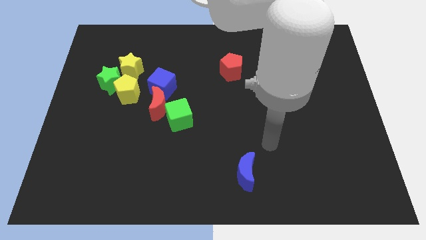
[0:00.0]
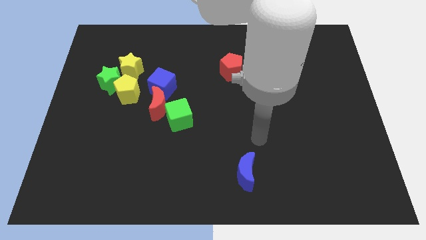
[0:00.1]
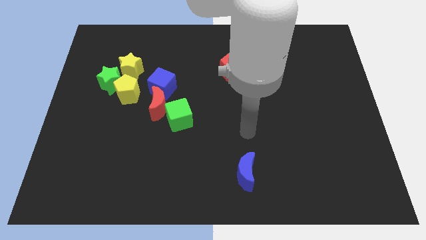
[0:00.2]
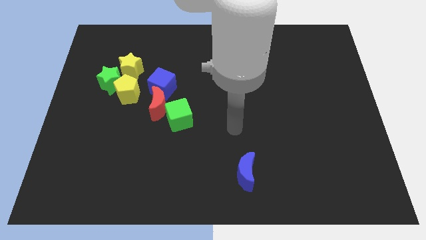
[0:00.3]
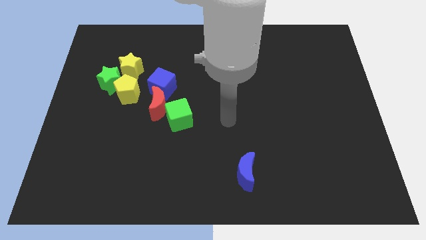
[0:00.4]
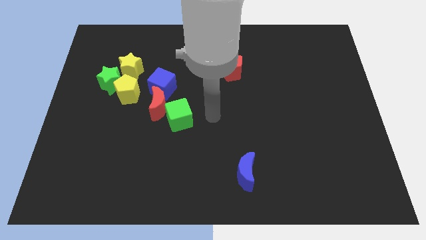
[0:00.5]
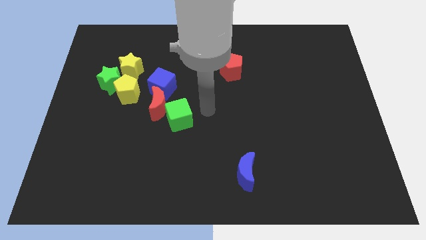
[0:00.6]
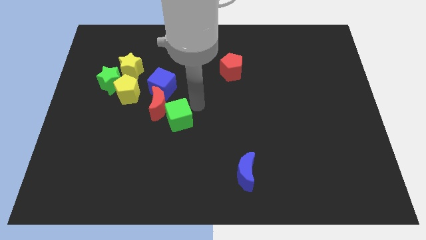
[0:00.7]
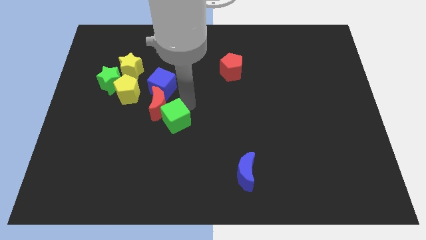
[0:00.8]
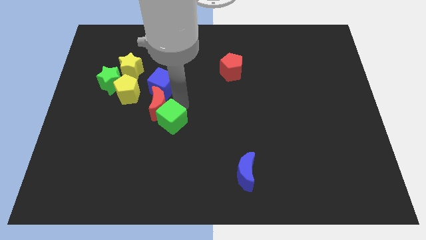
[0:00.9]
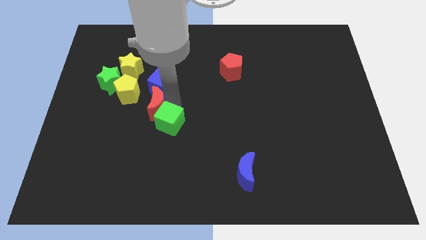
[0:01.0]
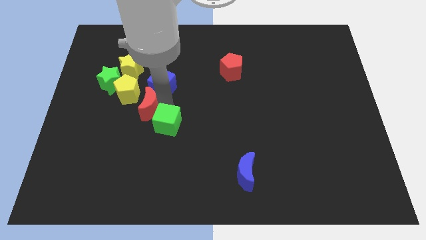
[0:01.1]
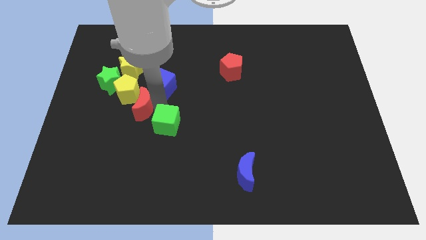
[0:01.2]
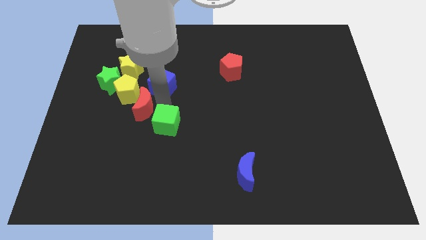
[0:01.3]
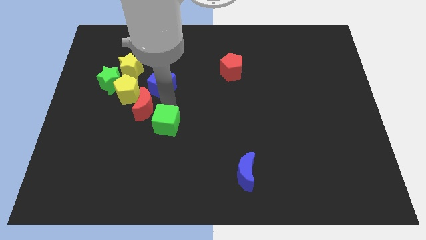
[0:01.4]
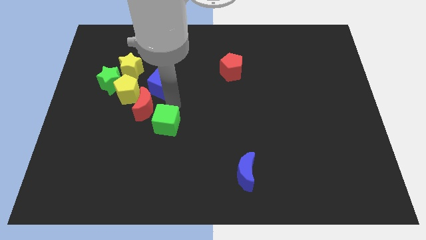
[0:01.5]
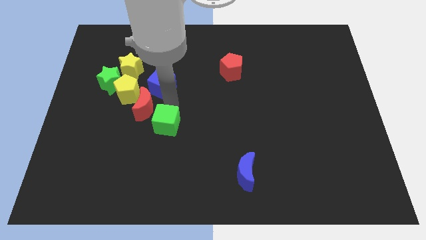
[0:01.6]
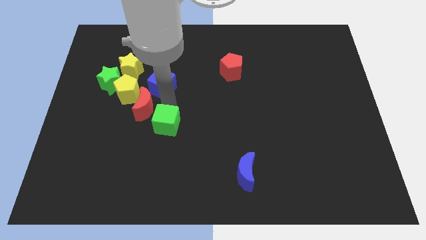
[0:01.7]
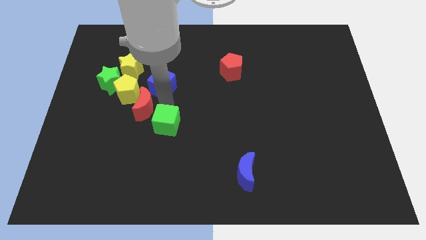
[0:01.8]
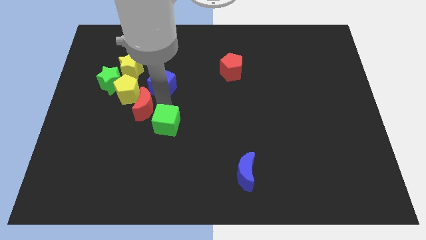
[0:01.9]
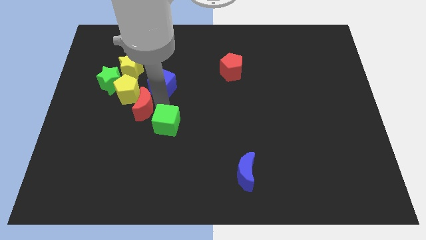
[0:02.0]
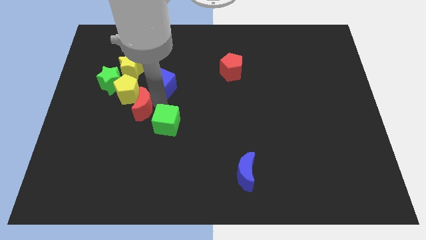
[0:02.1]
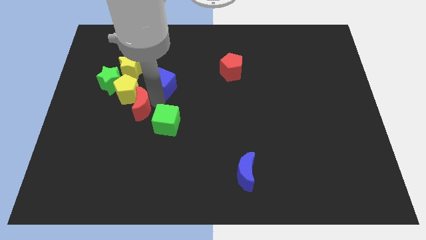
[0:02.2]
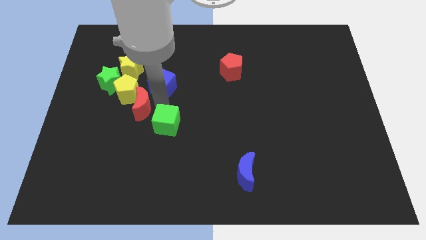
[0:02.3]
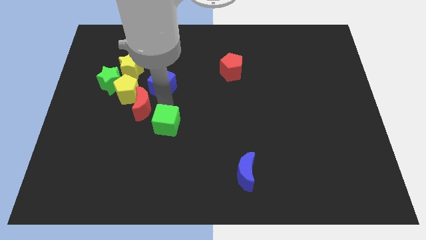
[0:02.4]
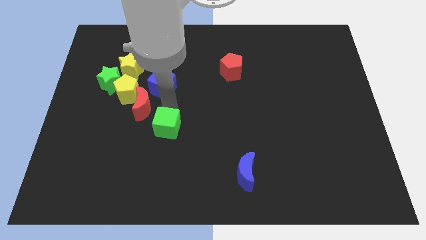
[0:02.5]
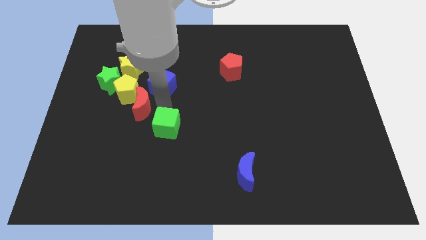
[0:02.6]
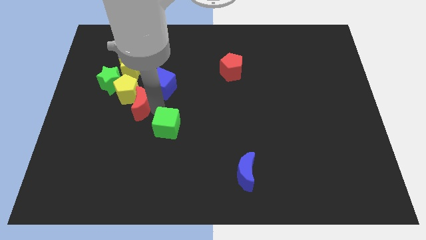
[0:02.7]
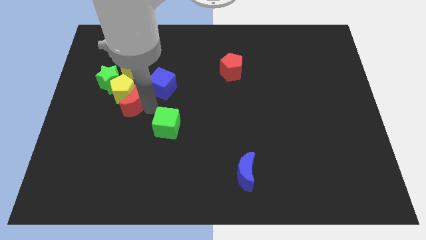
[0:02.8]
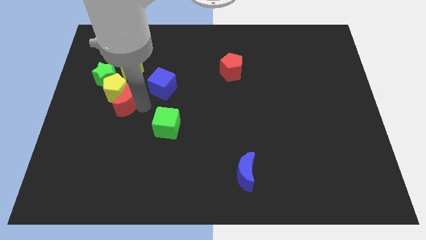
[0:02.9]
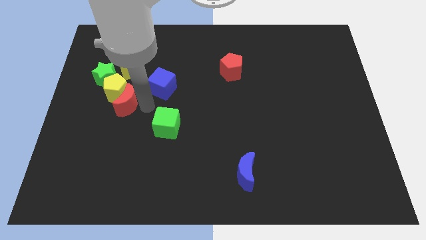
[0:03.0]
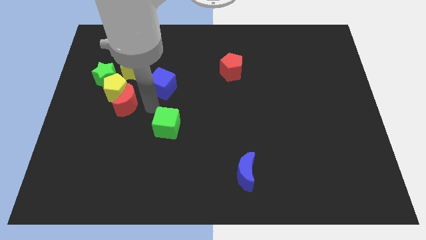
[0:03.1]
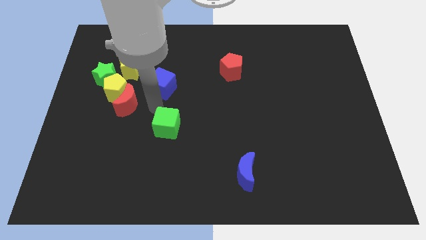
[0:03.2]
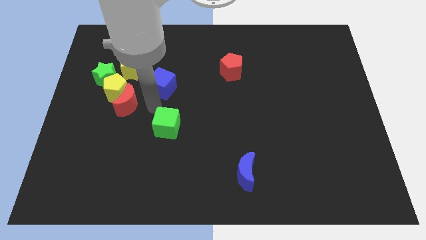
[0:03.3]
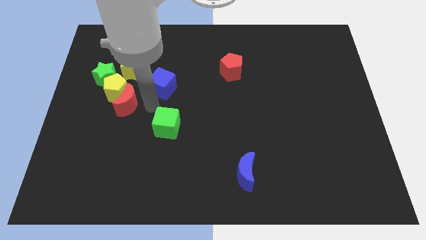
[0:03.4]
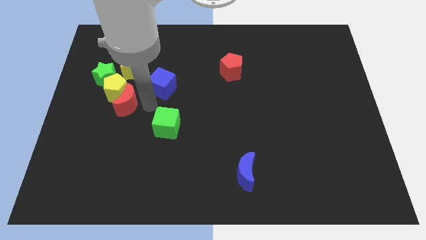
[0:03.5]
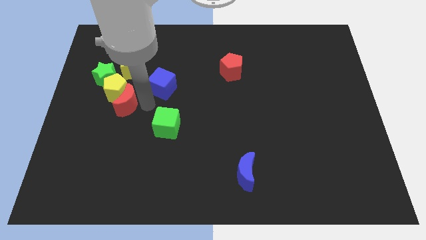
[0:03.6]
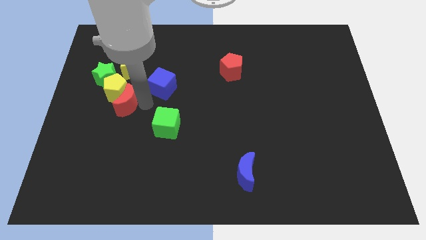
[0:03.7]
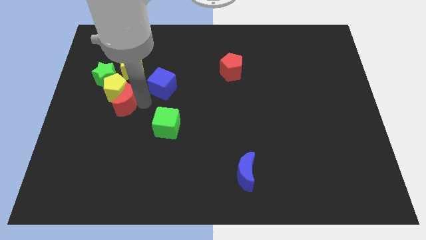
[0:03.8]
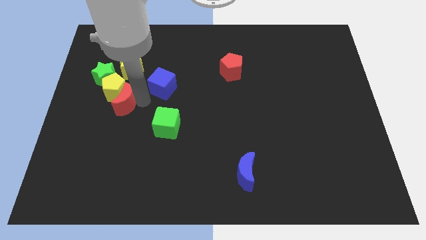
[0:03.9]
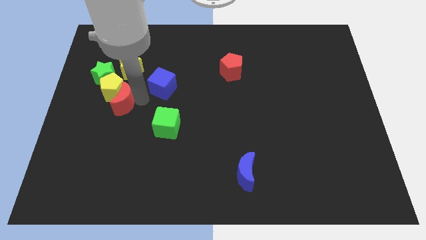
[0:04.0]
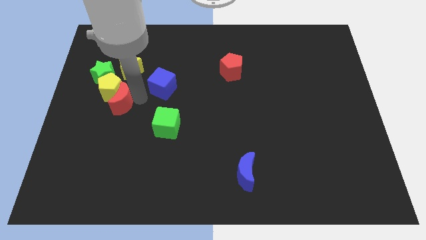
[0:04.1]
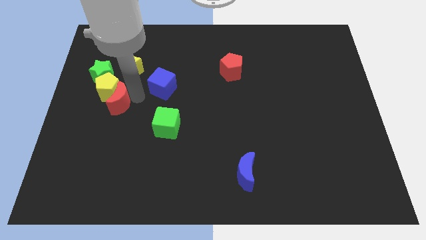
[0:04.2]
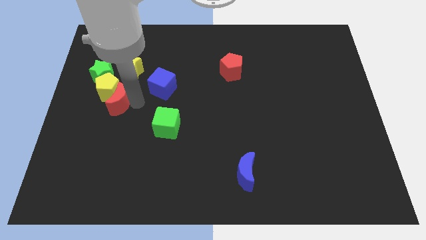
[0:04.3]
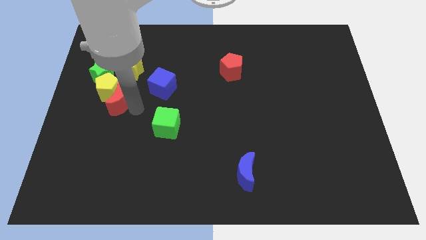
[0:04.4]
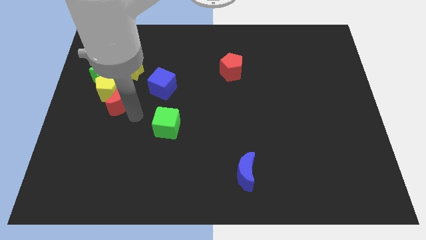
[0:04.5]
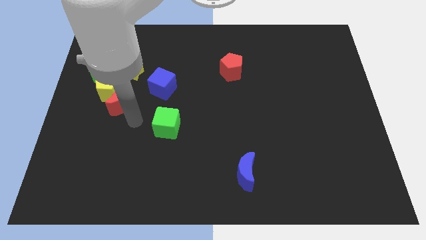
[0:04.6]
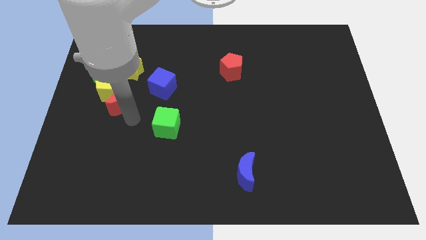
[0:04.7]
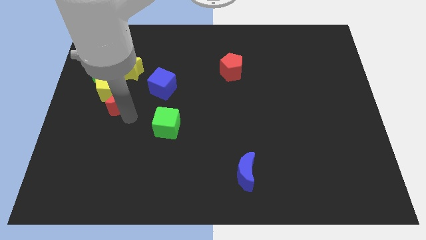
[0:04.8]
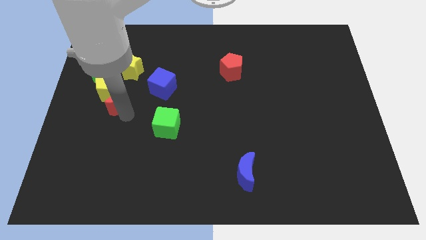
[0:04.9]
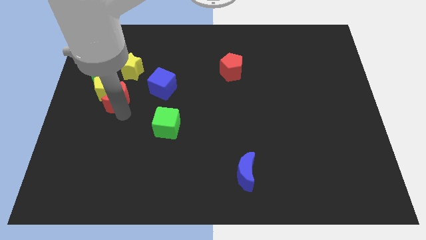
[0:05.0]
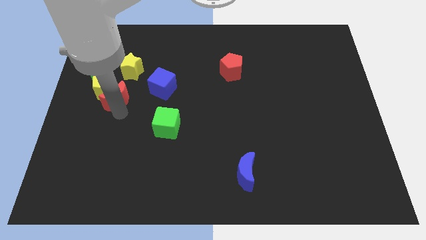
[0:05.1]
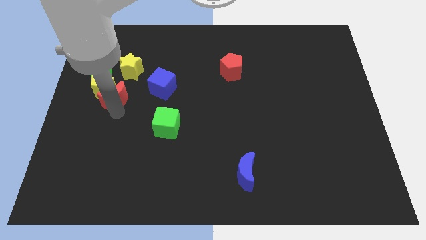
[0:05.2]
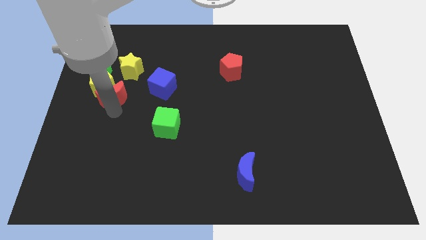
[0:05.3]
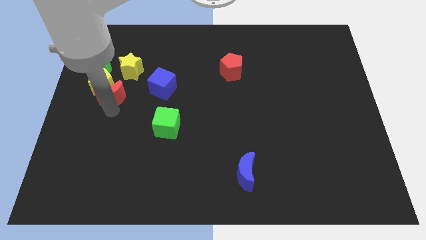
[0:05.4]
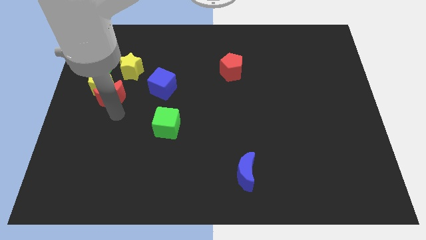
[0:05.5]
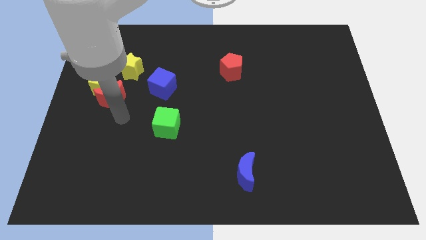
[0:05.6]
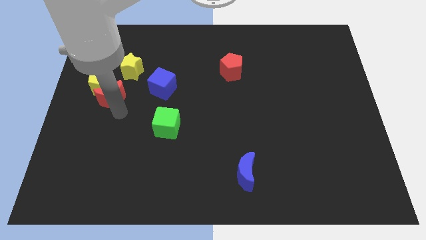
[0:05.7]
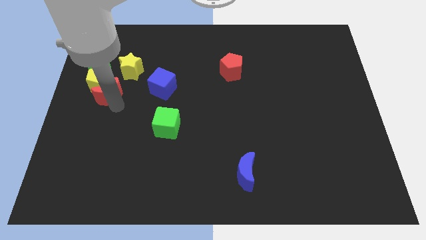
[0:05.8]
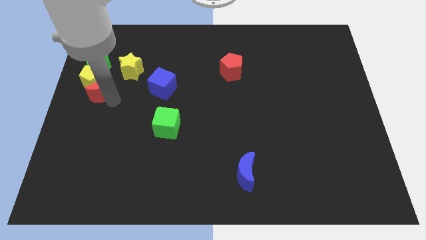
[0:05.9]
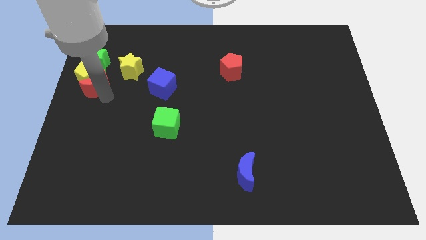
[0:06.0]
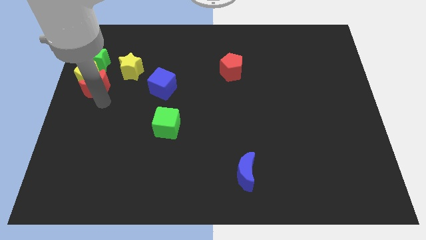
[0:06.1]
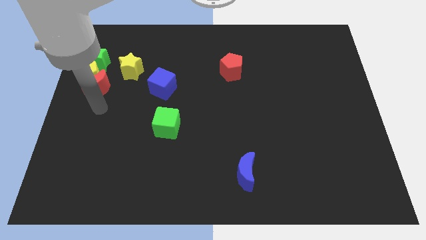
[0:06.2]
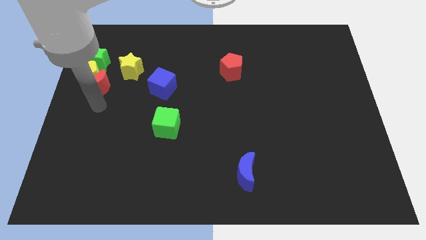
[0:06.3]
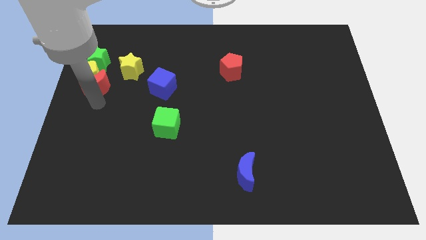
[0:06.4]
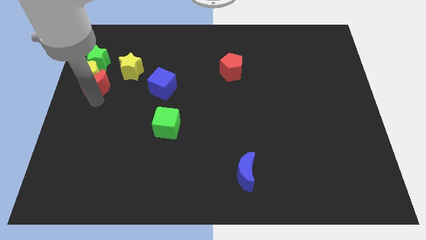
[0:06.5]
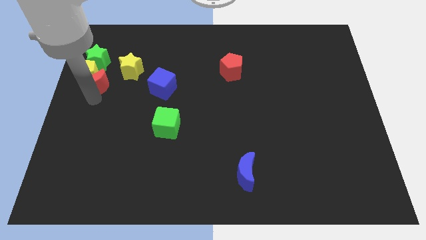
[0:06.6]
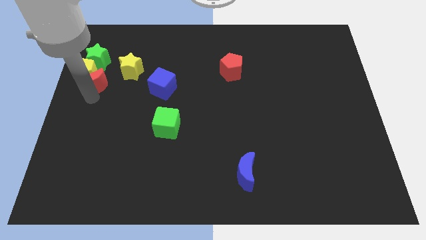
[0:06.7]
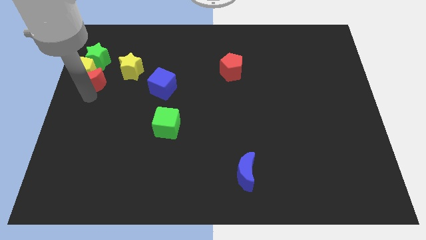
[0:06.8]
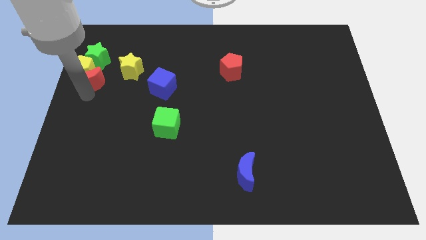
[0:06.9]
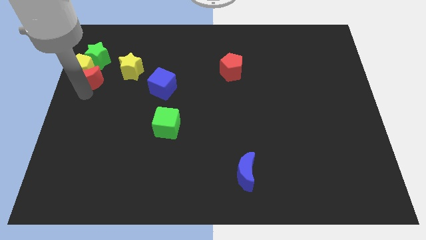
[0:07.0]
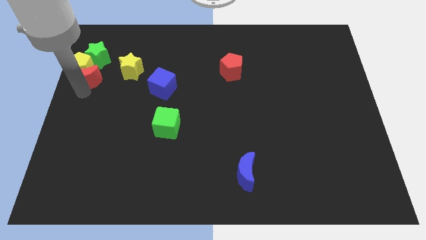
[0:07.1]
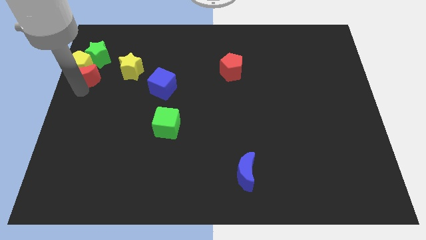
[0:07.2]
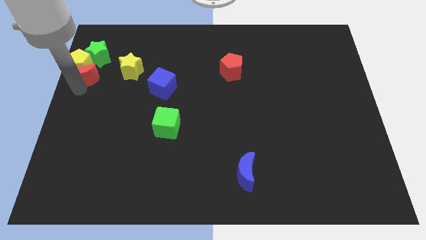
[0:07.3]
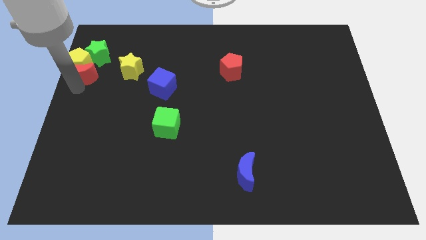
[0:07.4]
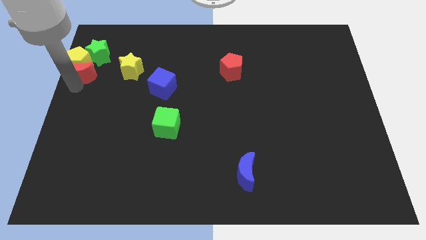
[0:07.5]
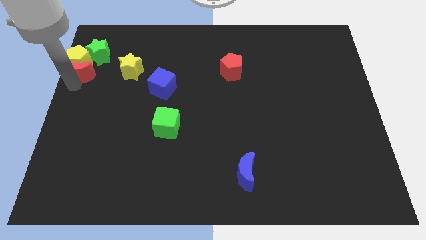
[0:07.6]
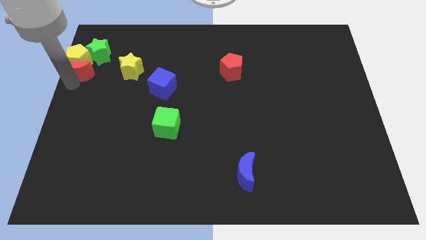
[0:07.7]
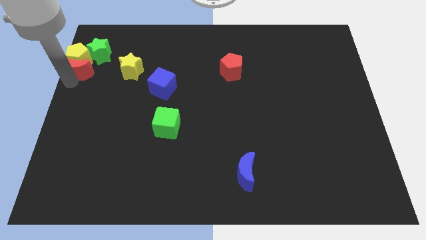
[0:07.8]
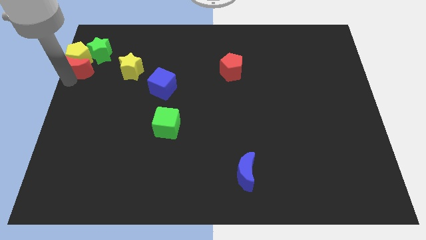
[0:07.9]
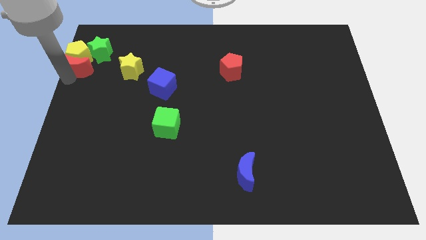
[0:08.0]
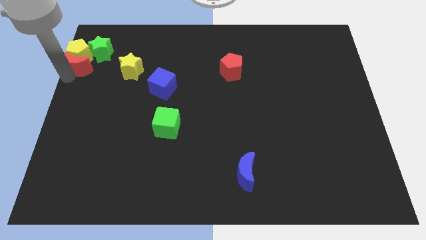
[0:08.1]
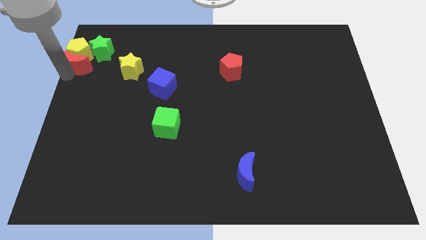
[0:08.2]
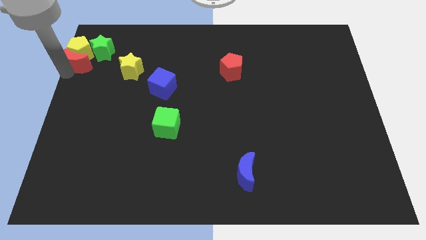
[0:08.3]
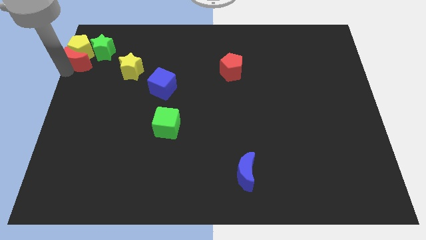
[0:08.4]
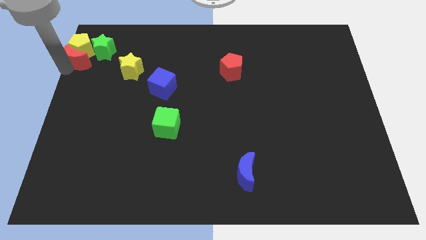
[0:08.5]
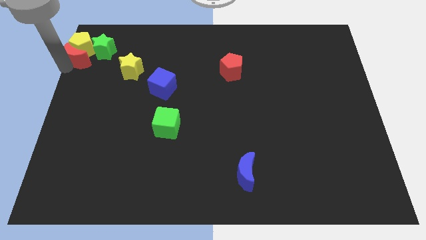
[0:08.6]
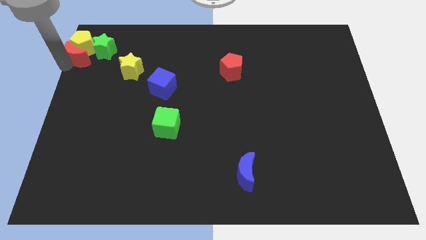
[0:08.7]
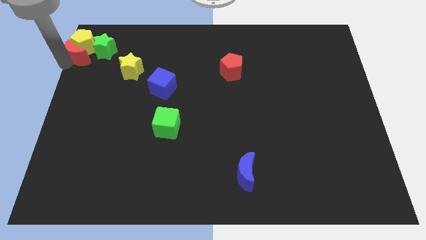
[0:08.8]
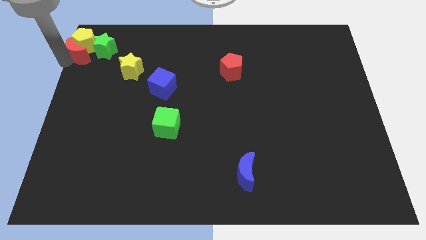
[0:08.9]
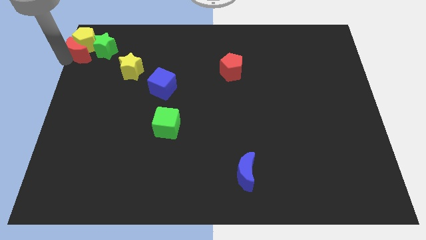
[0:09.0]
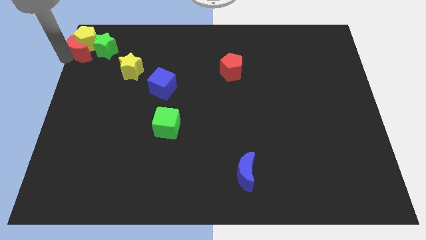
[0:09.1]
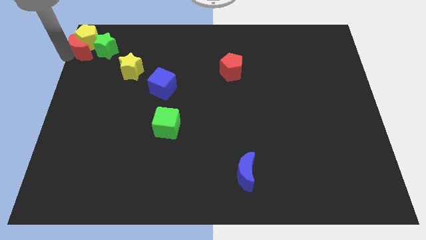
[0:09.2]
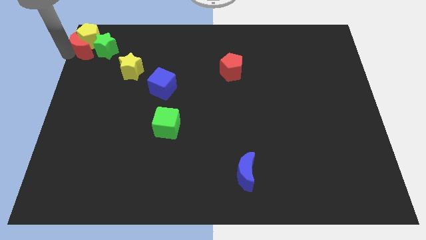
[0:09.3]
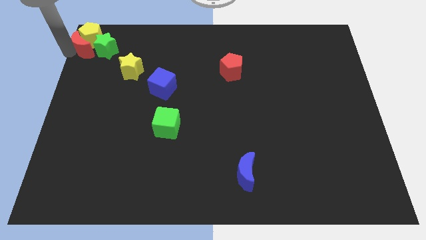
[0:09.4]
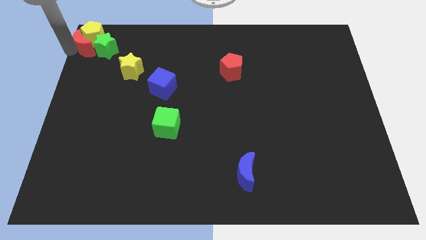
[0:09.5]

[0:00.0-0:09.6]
slide the red moon close to the green star
